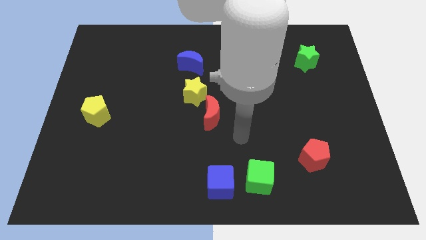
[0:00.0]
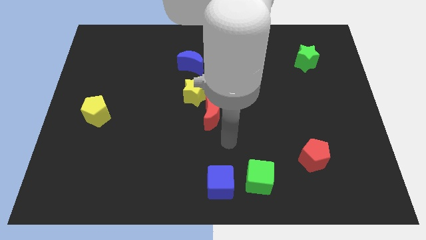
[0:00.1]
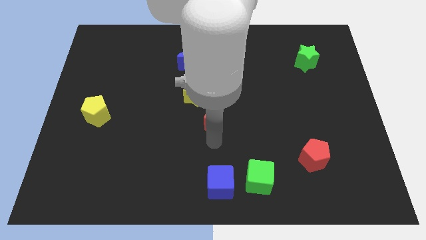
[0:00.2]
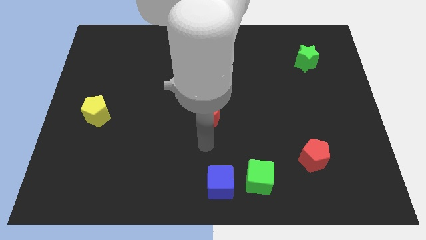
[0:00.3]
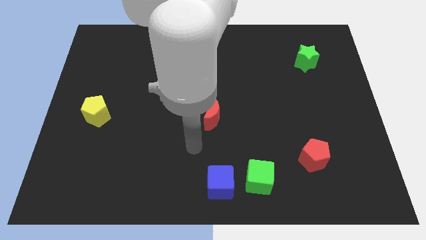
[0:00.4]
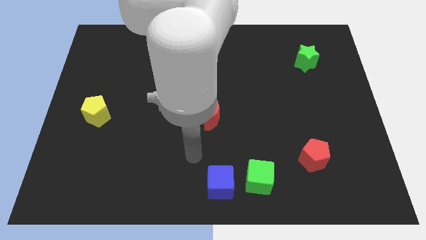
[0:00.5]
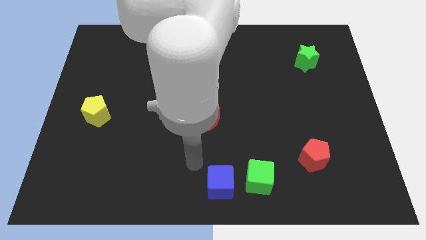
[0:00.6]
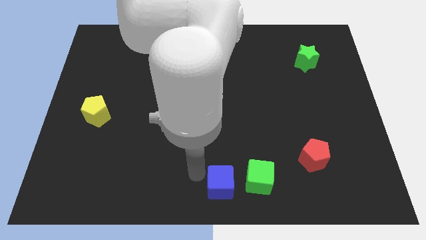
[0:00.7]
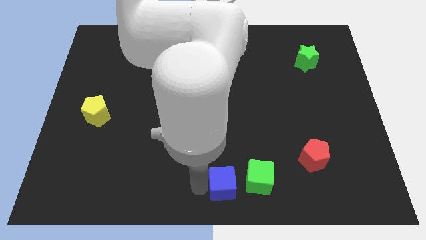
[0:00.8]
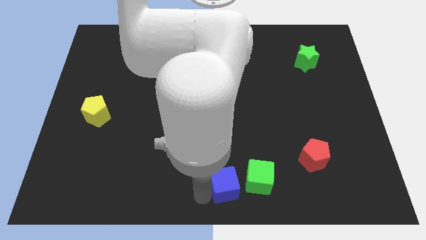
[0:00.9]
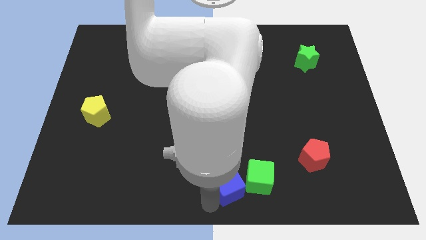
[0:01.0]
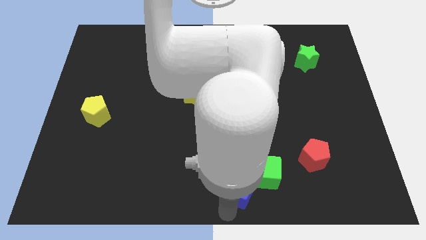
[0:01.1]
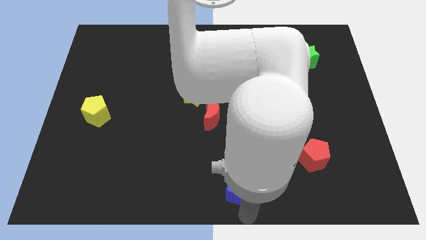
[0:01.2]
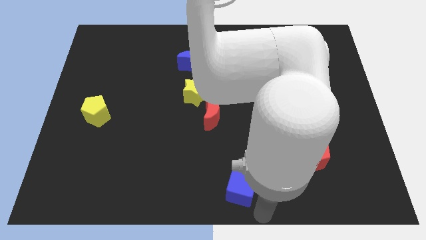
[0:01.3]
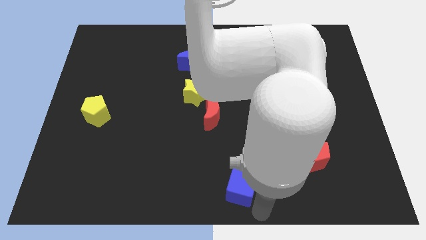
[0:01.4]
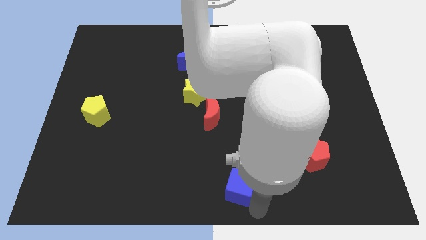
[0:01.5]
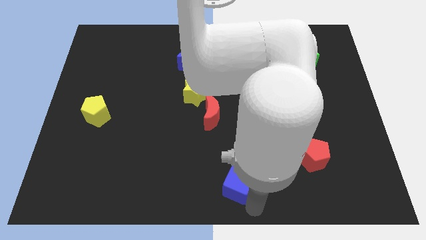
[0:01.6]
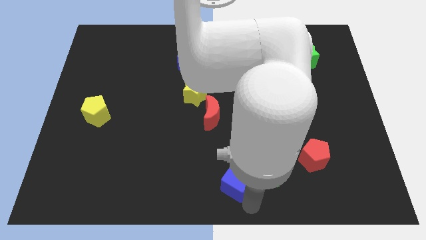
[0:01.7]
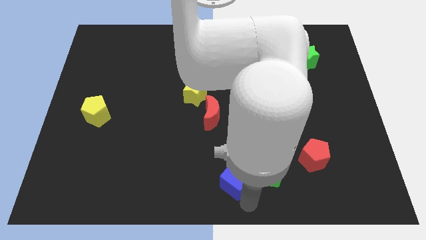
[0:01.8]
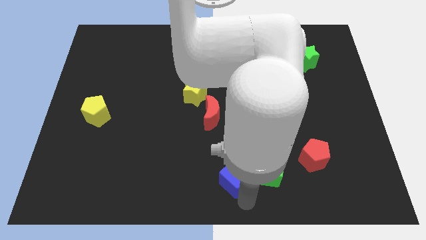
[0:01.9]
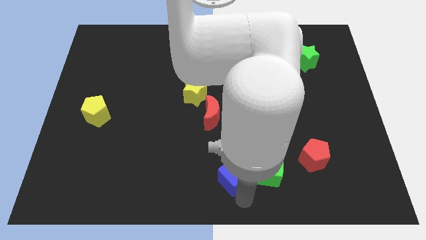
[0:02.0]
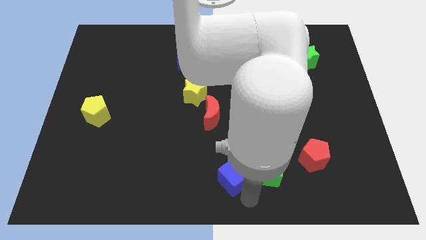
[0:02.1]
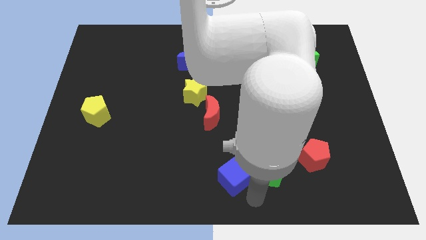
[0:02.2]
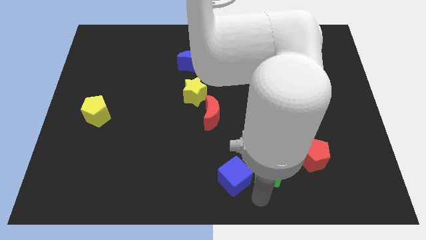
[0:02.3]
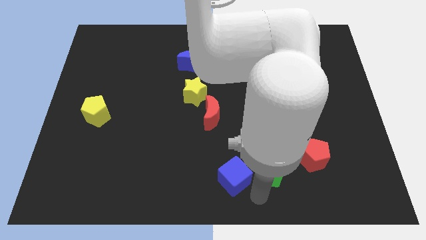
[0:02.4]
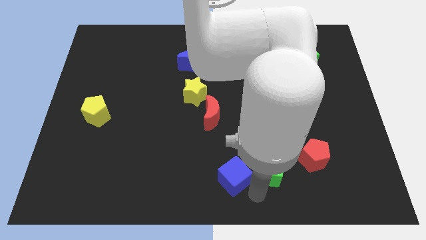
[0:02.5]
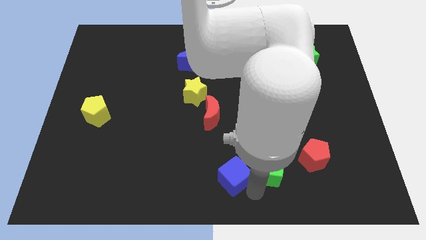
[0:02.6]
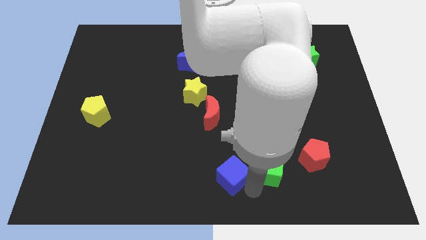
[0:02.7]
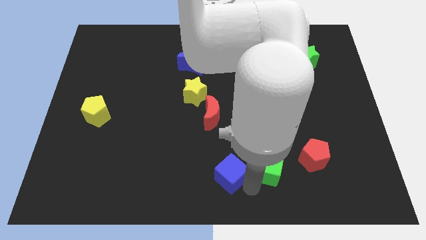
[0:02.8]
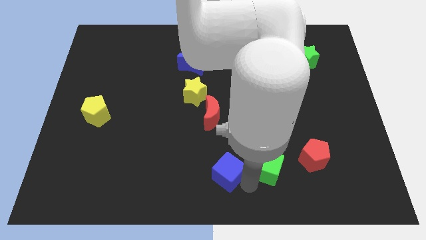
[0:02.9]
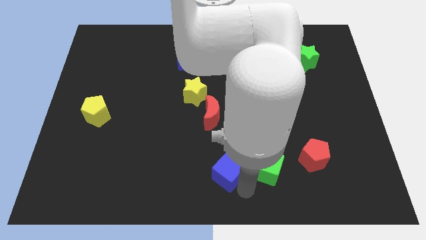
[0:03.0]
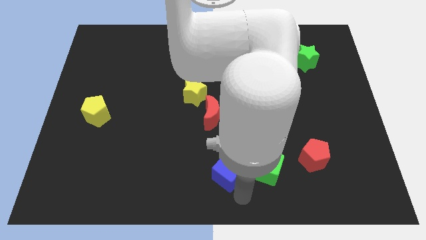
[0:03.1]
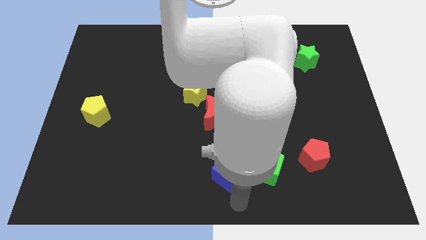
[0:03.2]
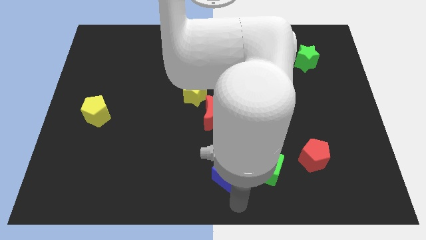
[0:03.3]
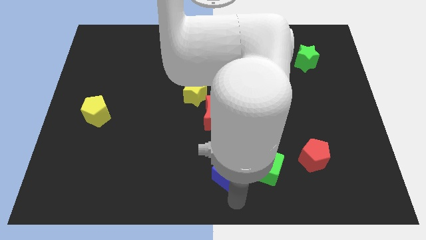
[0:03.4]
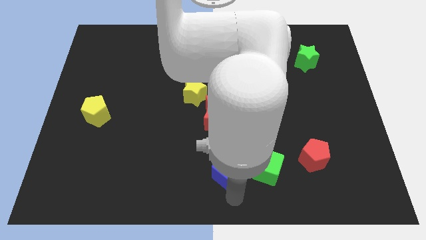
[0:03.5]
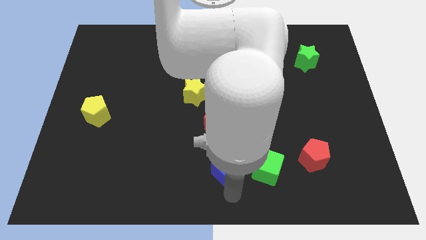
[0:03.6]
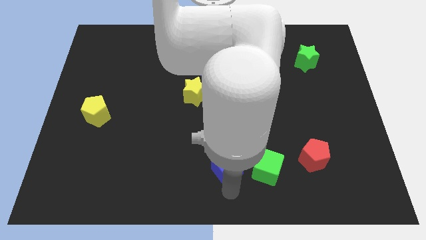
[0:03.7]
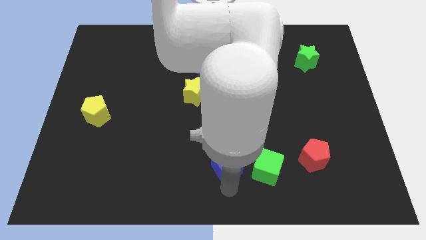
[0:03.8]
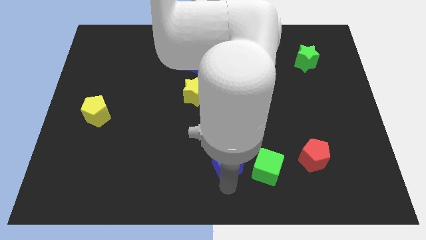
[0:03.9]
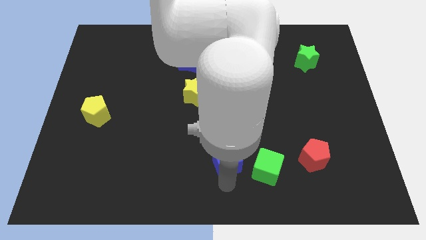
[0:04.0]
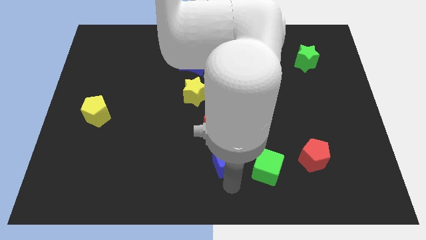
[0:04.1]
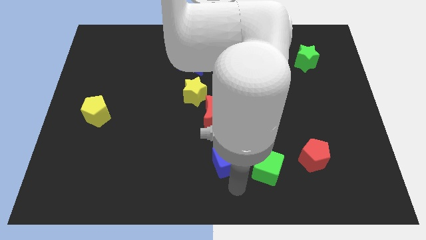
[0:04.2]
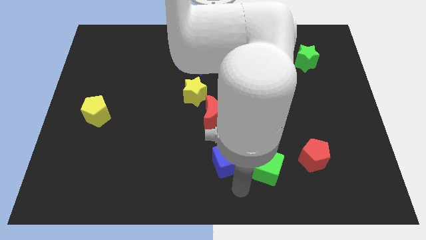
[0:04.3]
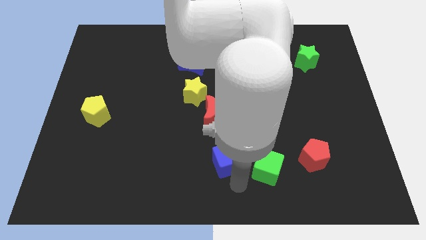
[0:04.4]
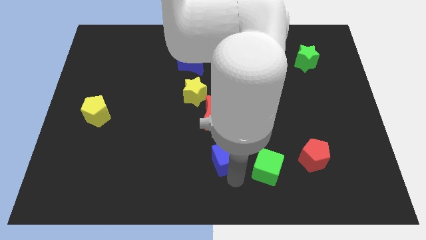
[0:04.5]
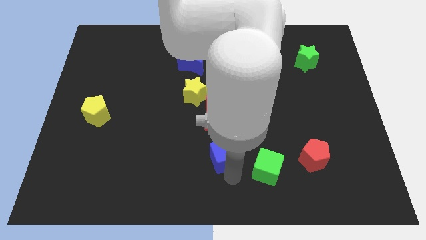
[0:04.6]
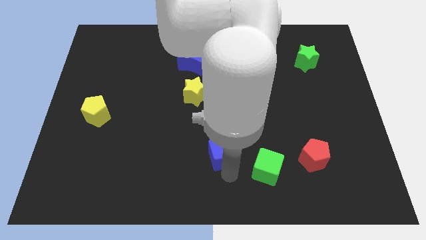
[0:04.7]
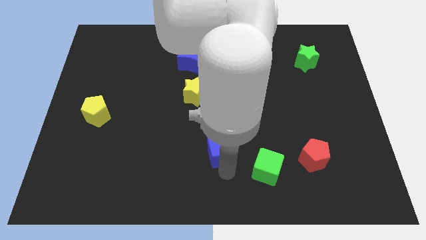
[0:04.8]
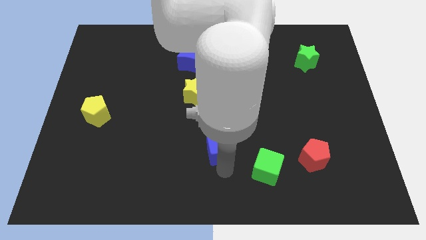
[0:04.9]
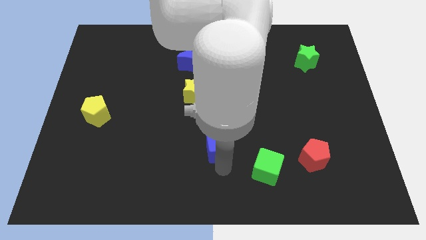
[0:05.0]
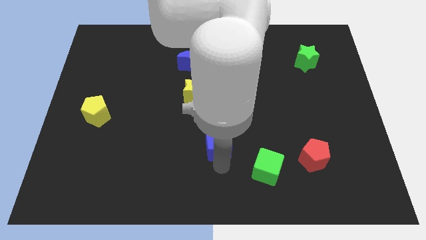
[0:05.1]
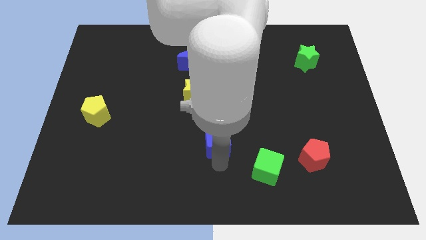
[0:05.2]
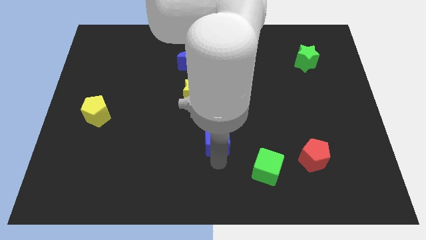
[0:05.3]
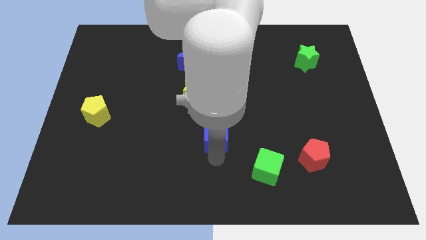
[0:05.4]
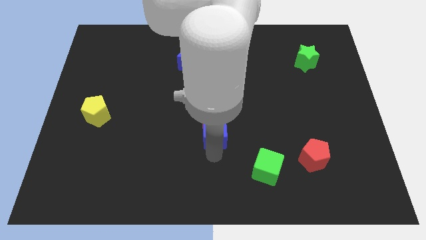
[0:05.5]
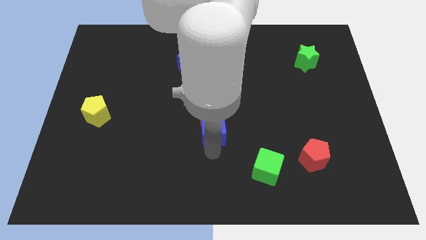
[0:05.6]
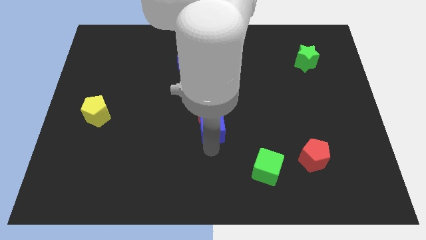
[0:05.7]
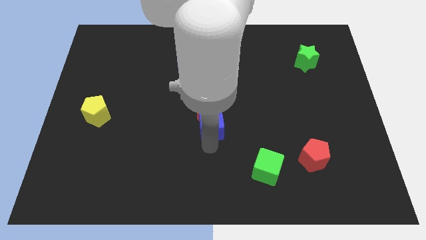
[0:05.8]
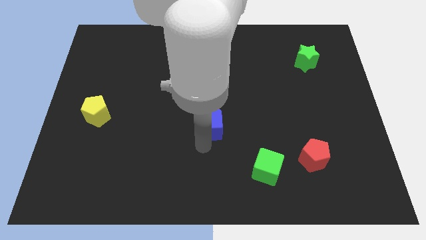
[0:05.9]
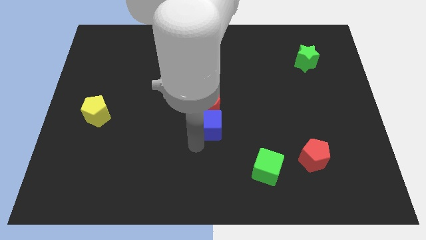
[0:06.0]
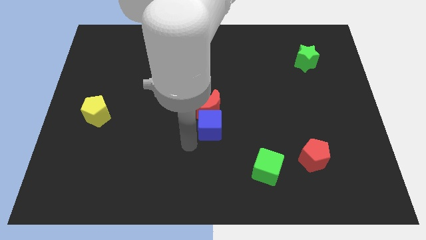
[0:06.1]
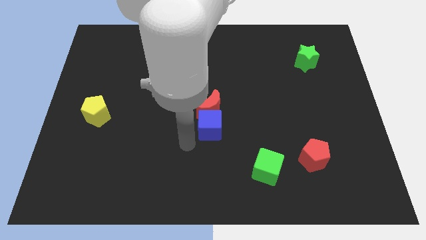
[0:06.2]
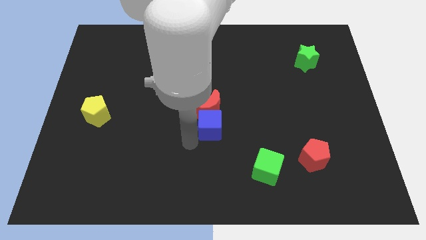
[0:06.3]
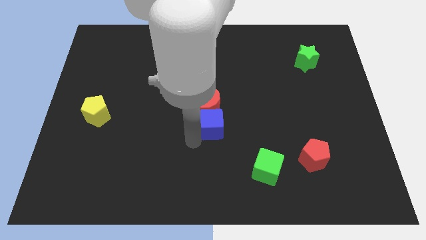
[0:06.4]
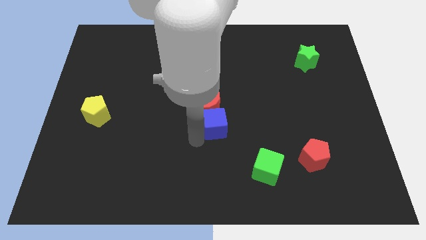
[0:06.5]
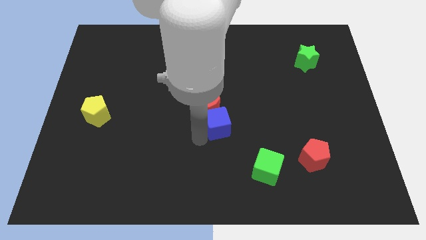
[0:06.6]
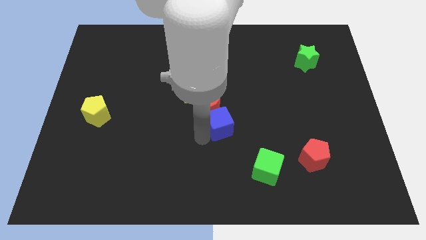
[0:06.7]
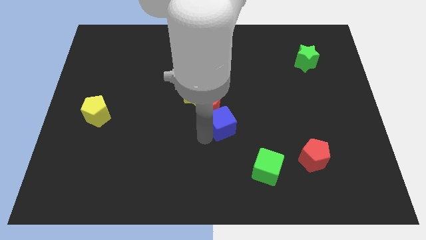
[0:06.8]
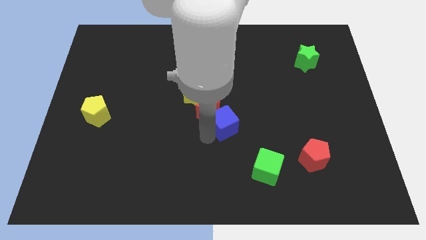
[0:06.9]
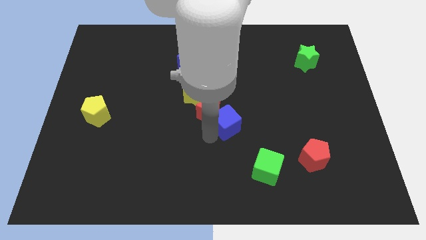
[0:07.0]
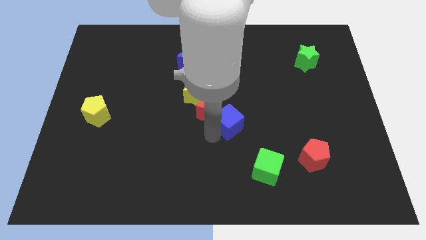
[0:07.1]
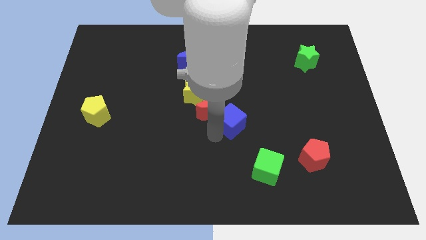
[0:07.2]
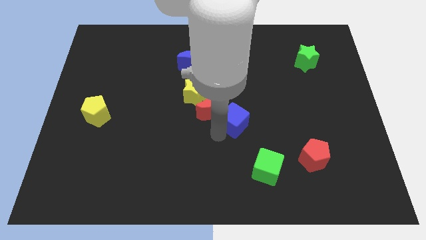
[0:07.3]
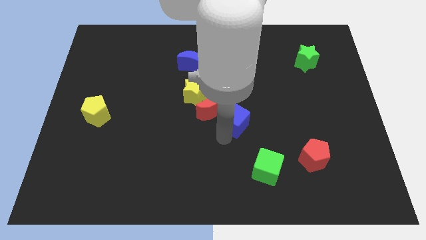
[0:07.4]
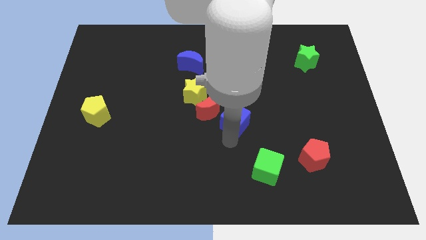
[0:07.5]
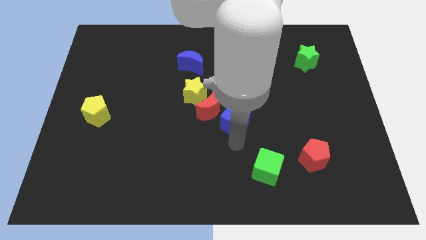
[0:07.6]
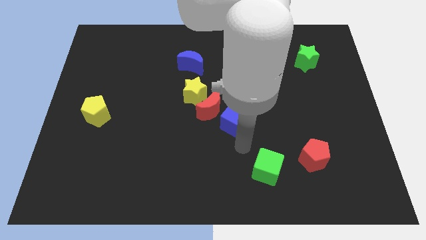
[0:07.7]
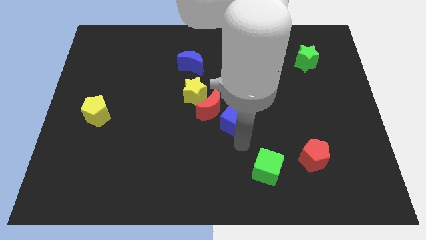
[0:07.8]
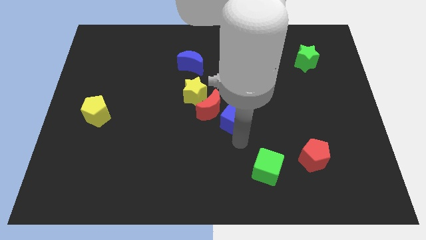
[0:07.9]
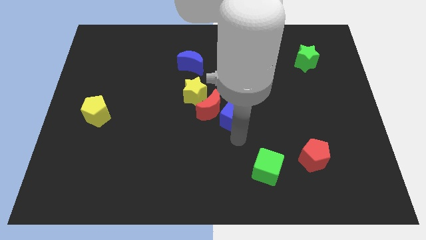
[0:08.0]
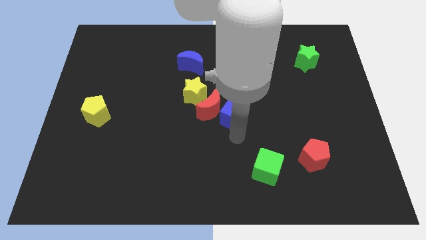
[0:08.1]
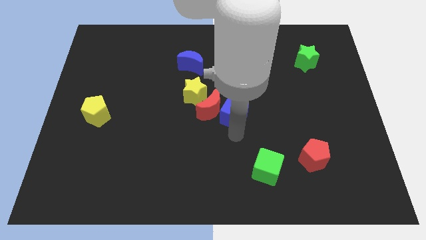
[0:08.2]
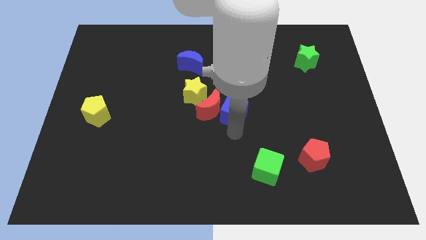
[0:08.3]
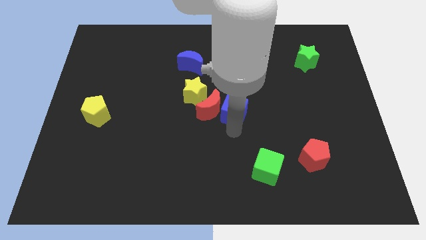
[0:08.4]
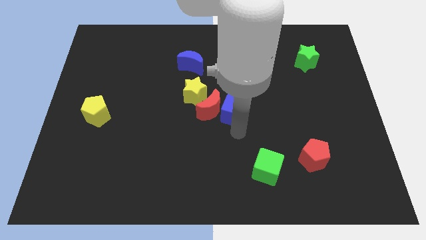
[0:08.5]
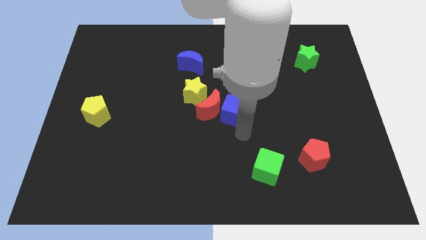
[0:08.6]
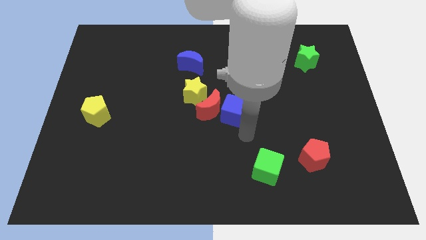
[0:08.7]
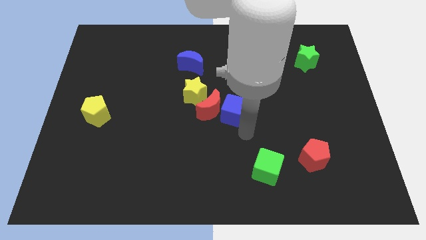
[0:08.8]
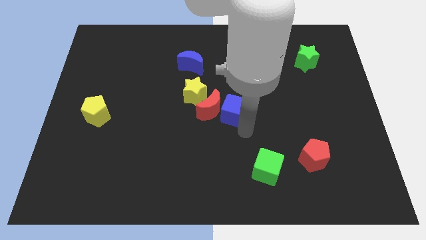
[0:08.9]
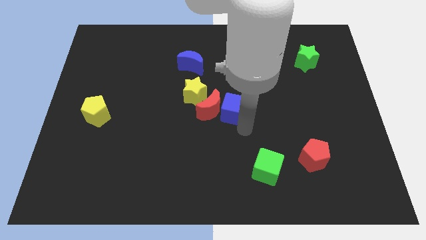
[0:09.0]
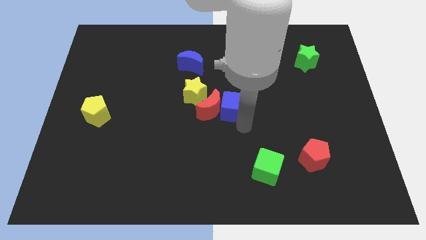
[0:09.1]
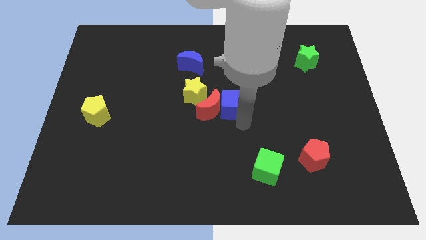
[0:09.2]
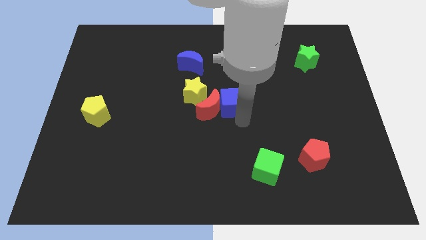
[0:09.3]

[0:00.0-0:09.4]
move the blue cube up
